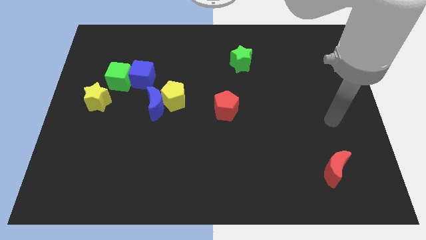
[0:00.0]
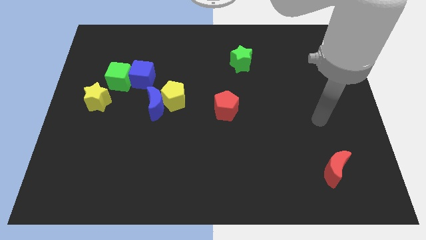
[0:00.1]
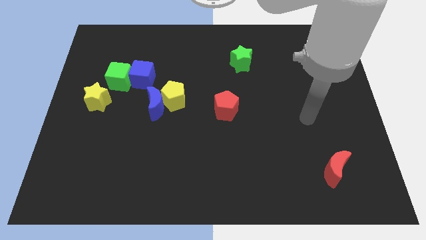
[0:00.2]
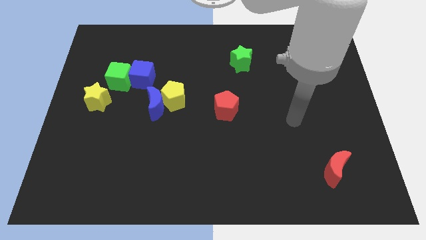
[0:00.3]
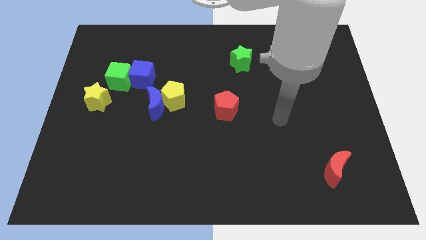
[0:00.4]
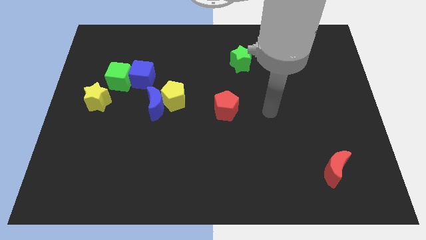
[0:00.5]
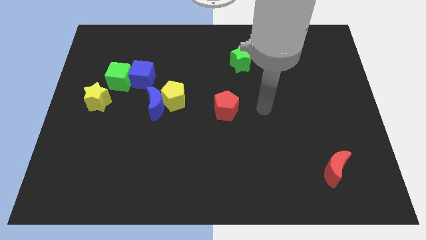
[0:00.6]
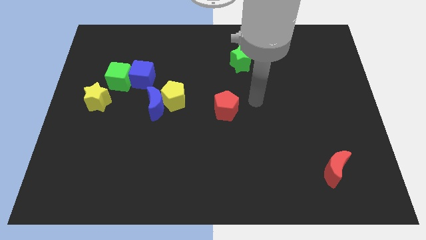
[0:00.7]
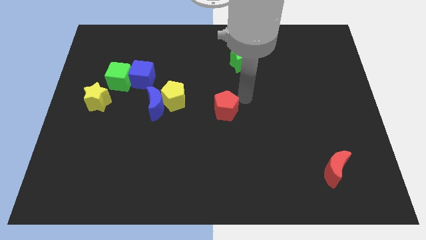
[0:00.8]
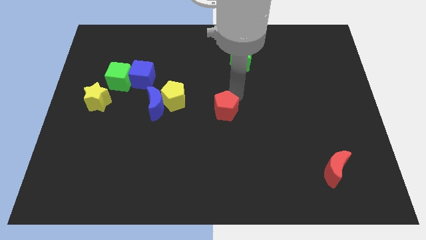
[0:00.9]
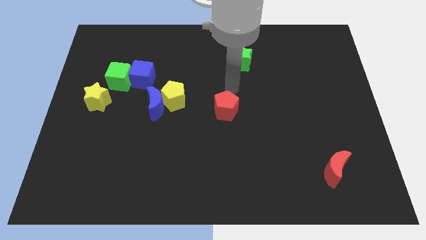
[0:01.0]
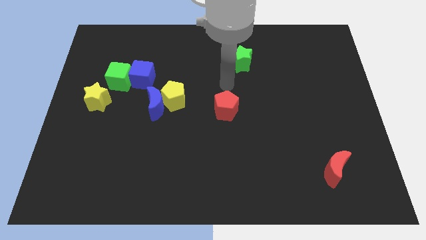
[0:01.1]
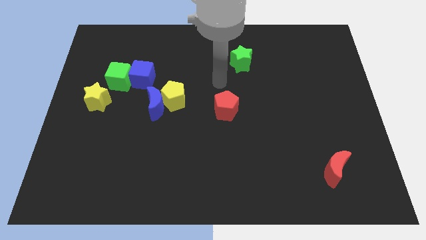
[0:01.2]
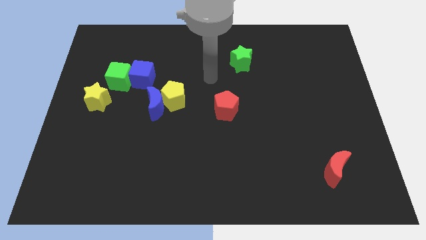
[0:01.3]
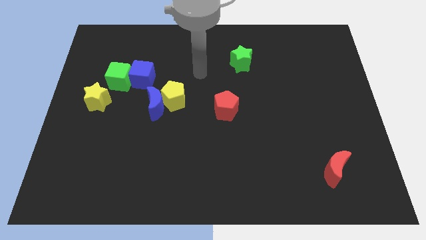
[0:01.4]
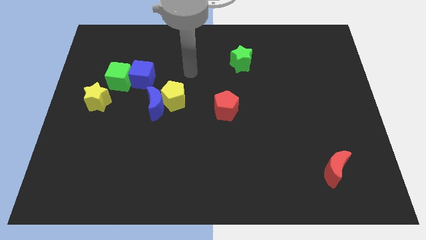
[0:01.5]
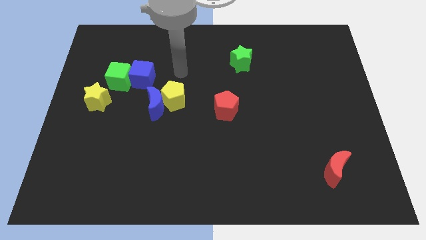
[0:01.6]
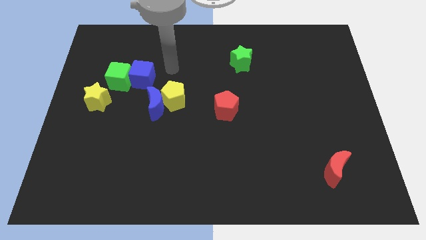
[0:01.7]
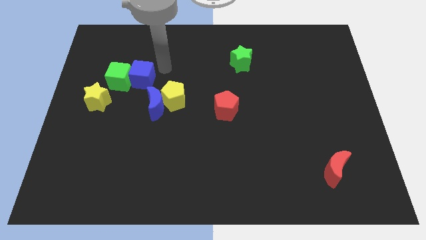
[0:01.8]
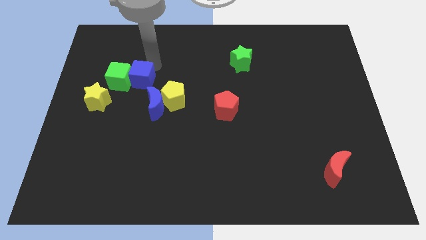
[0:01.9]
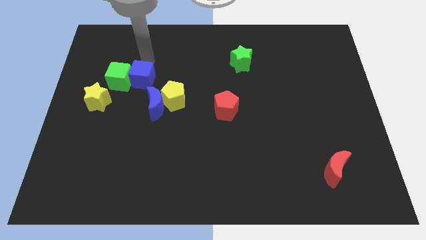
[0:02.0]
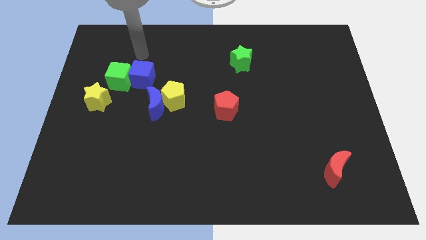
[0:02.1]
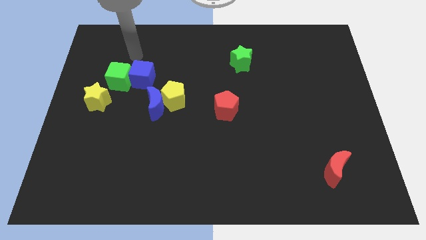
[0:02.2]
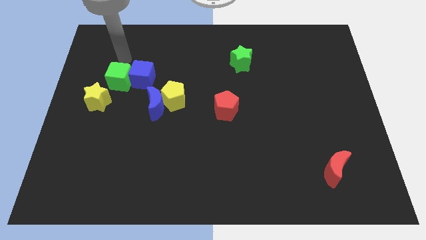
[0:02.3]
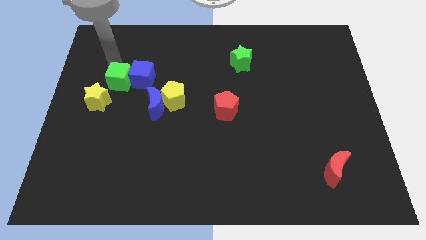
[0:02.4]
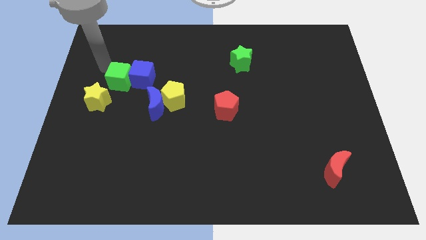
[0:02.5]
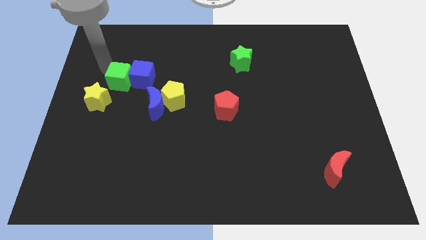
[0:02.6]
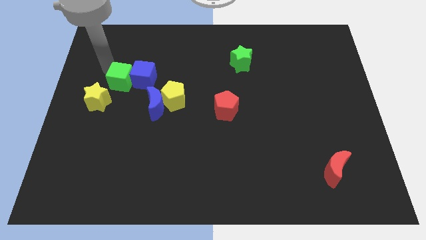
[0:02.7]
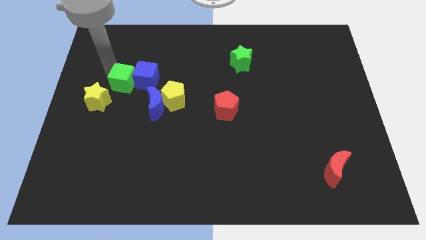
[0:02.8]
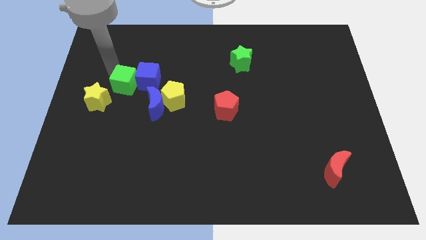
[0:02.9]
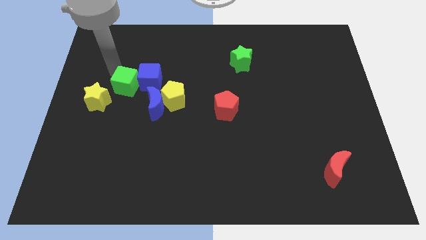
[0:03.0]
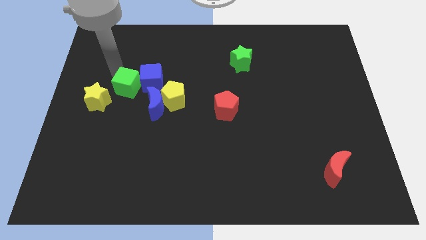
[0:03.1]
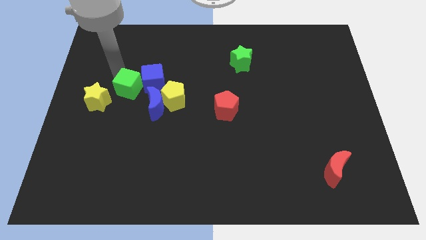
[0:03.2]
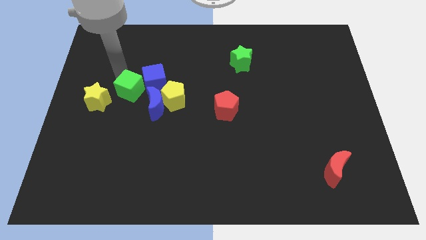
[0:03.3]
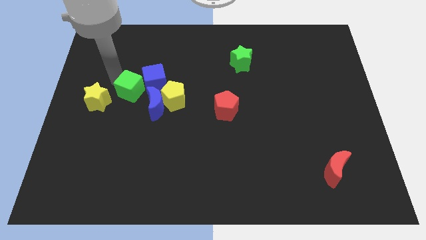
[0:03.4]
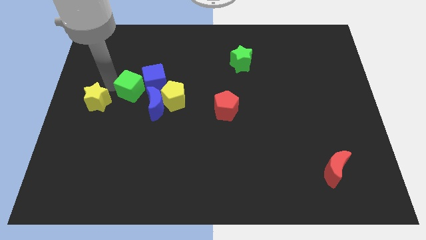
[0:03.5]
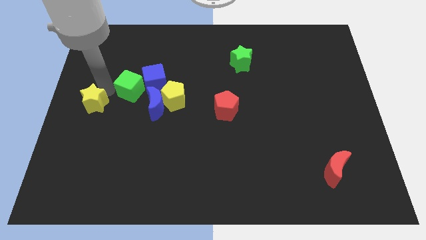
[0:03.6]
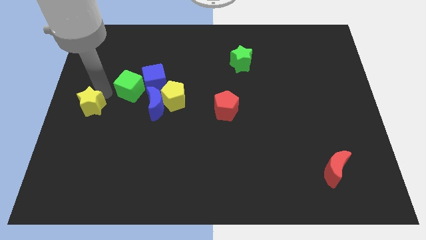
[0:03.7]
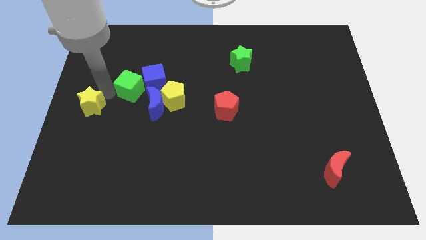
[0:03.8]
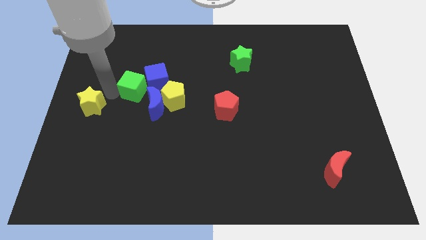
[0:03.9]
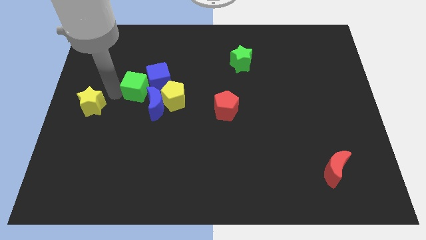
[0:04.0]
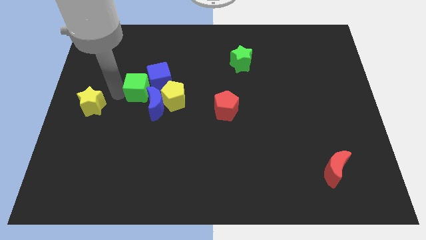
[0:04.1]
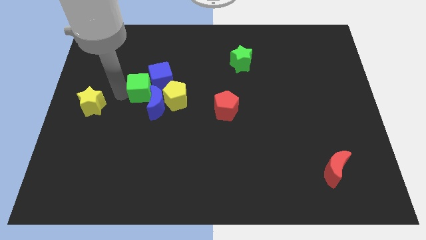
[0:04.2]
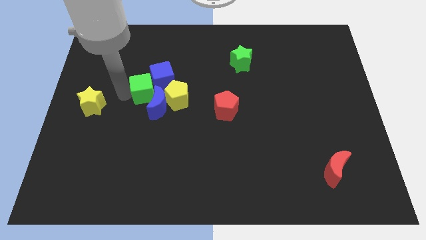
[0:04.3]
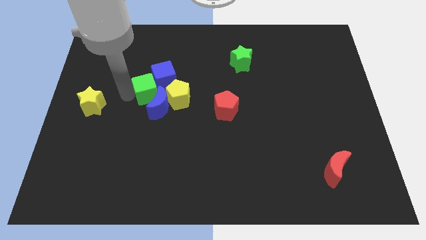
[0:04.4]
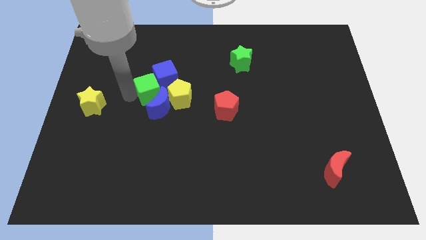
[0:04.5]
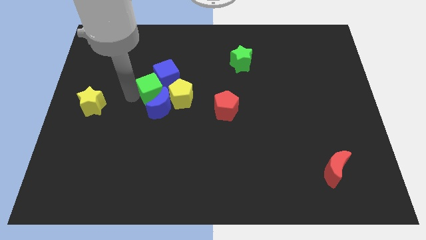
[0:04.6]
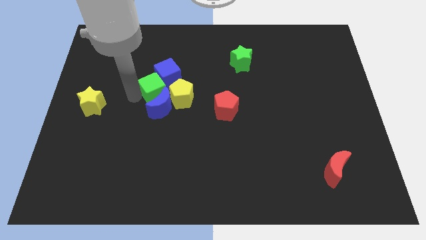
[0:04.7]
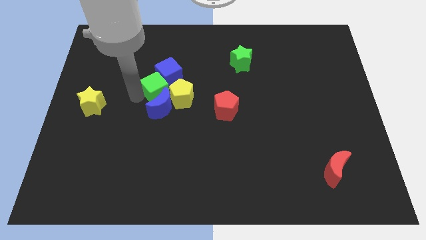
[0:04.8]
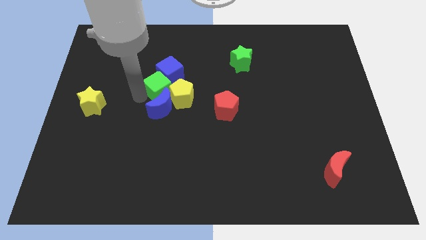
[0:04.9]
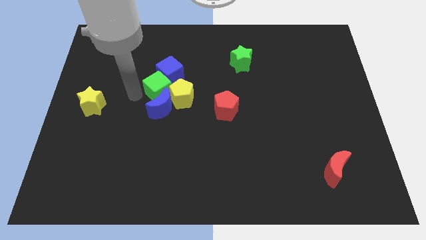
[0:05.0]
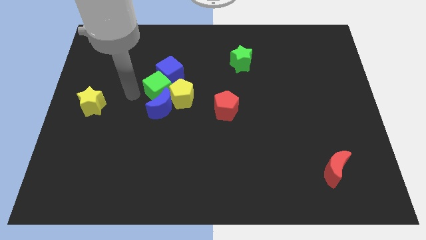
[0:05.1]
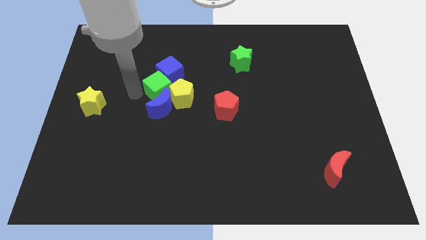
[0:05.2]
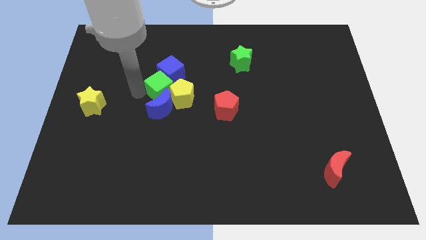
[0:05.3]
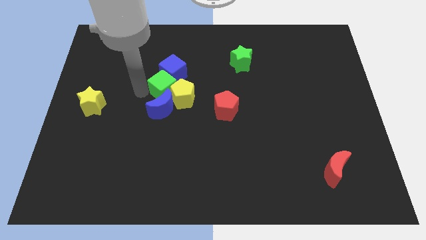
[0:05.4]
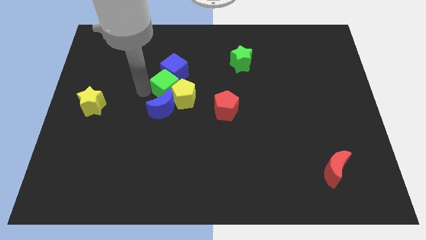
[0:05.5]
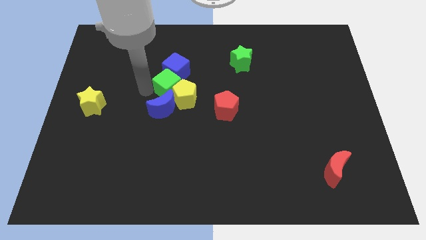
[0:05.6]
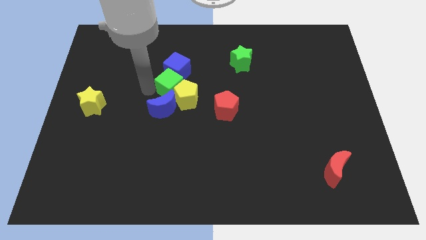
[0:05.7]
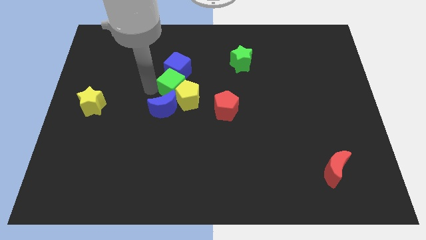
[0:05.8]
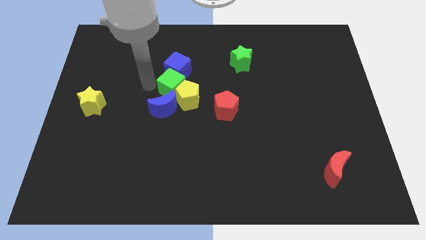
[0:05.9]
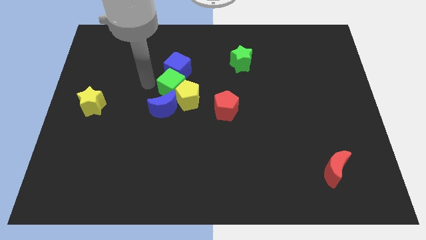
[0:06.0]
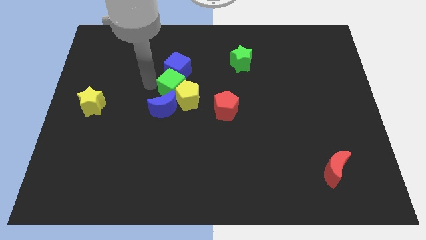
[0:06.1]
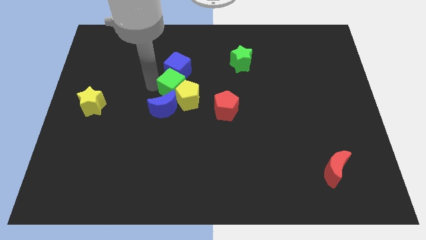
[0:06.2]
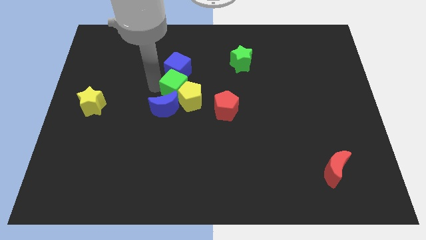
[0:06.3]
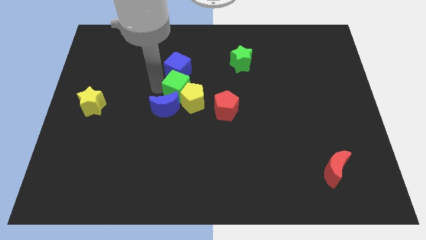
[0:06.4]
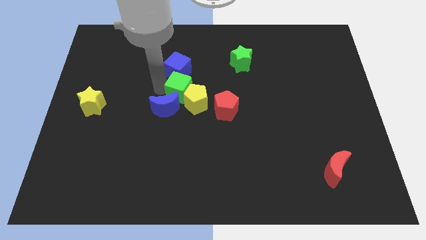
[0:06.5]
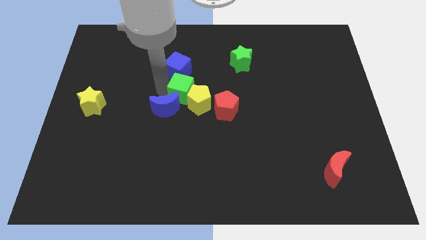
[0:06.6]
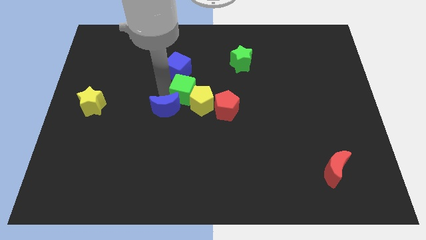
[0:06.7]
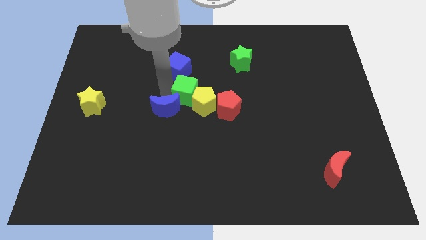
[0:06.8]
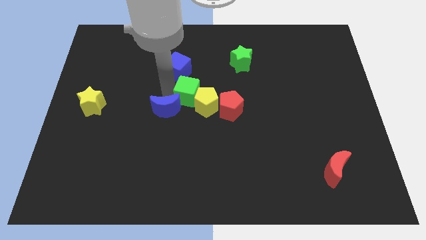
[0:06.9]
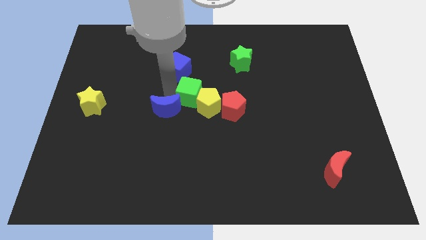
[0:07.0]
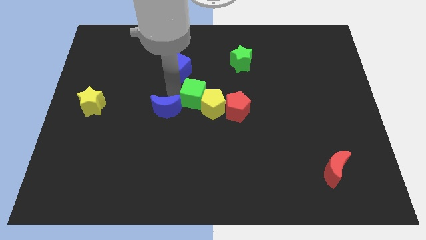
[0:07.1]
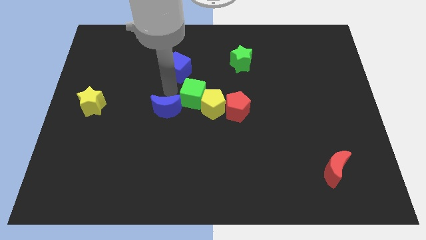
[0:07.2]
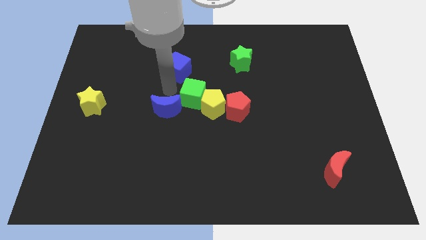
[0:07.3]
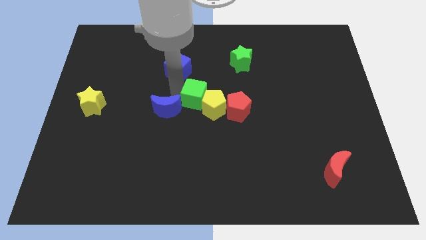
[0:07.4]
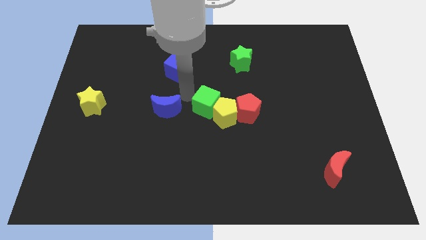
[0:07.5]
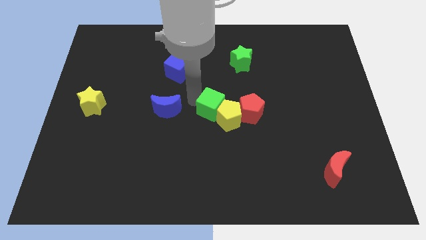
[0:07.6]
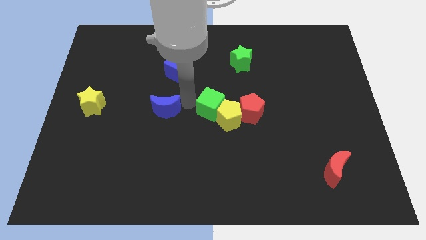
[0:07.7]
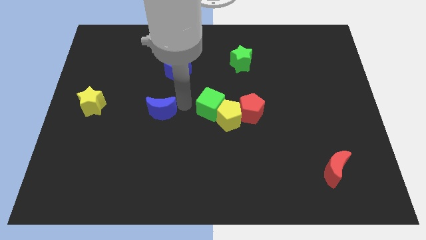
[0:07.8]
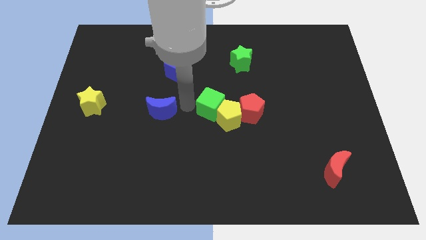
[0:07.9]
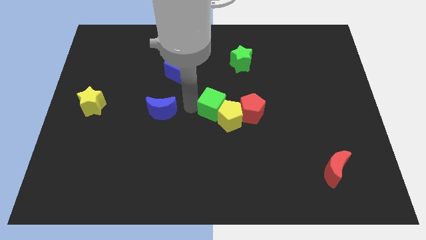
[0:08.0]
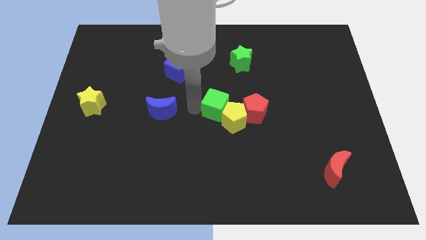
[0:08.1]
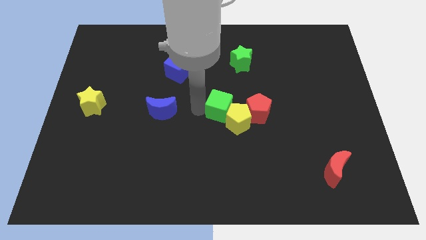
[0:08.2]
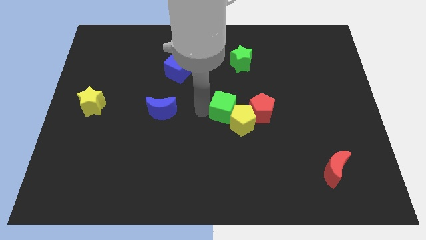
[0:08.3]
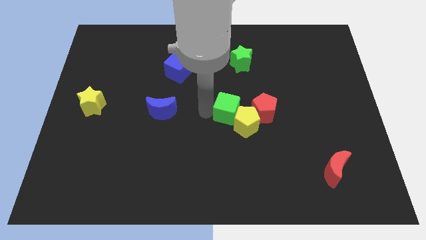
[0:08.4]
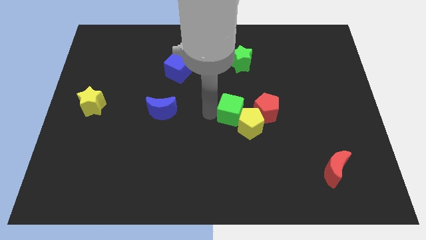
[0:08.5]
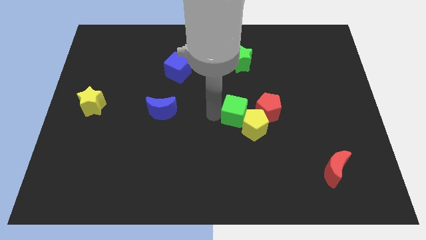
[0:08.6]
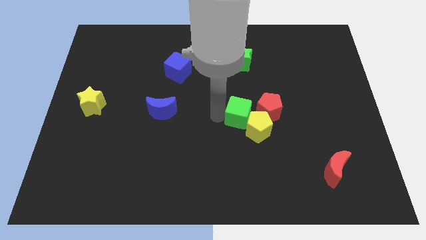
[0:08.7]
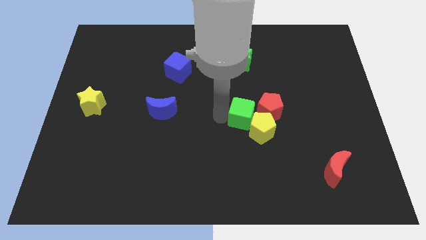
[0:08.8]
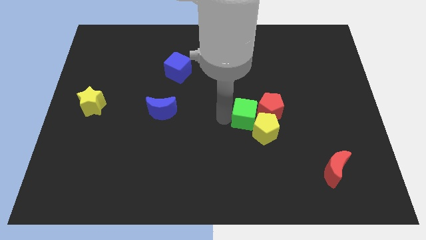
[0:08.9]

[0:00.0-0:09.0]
slide the green cube close to the red pentagon
